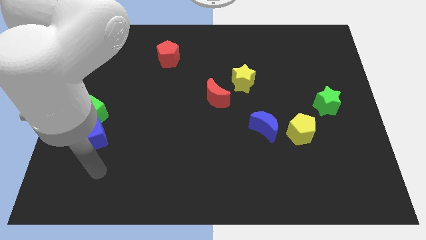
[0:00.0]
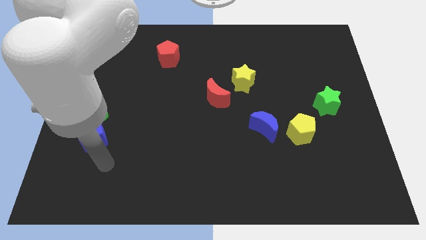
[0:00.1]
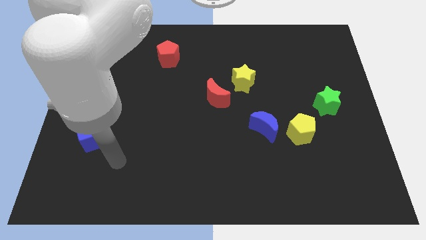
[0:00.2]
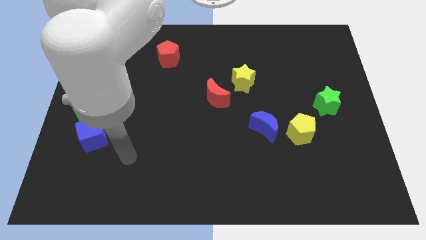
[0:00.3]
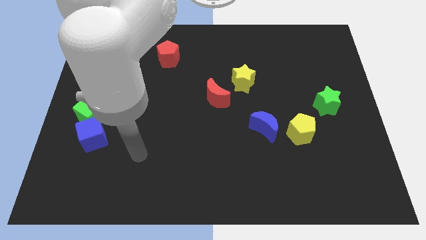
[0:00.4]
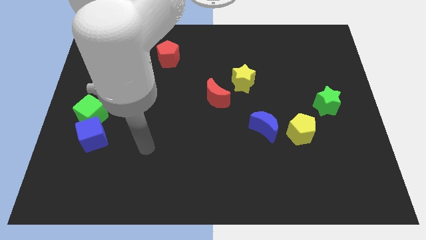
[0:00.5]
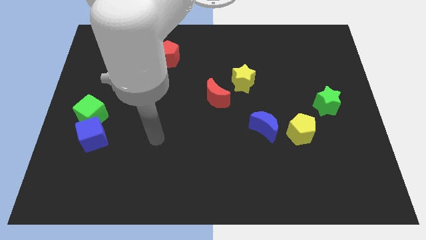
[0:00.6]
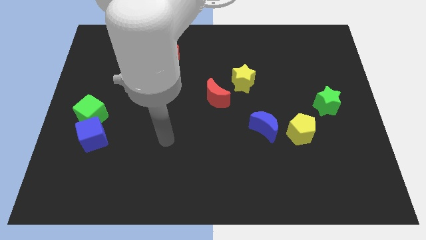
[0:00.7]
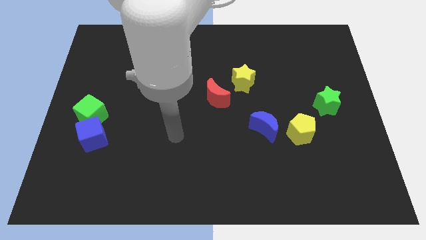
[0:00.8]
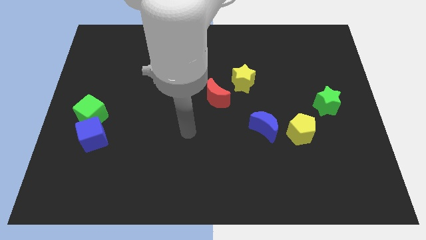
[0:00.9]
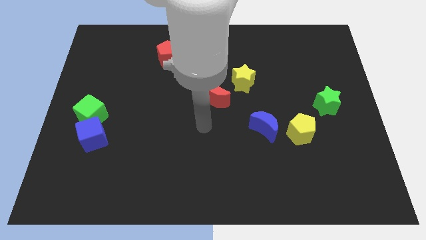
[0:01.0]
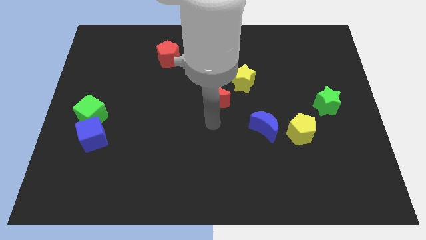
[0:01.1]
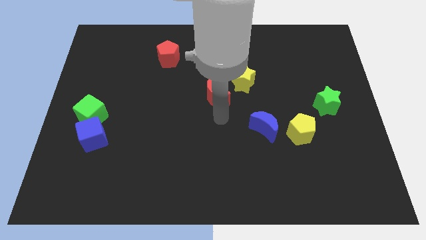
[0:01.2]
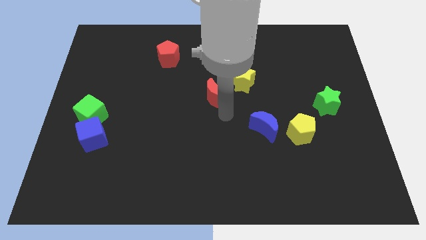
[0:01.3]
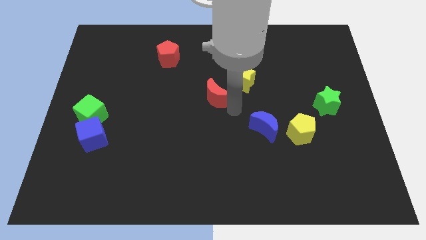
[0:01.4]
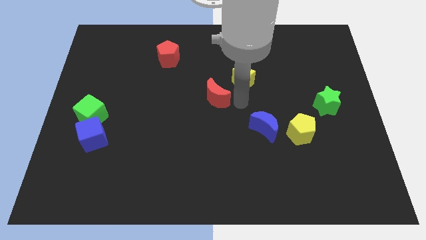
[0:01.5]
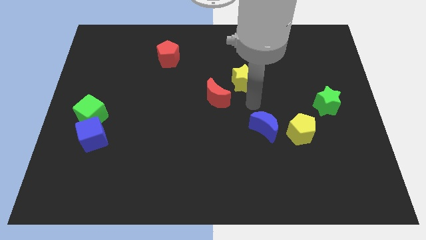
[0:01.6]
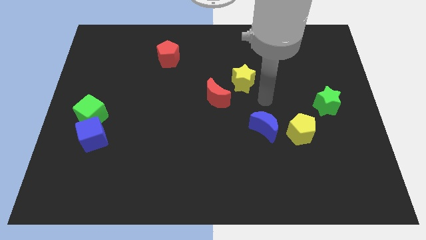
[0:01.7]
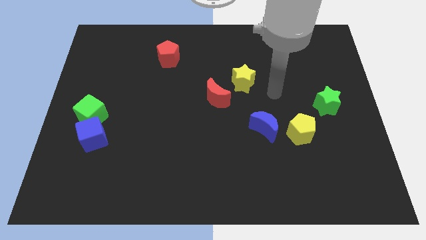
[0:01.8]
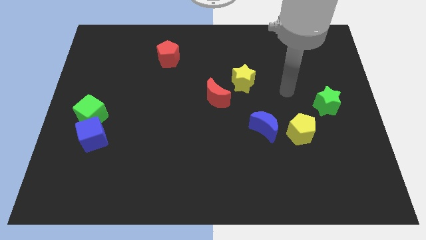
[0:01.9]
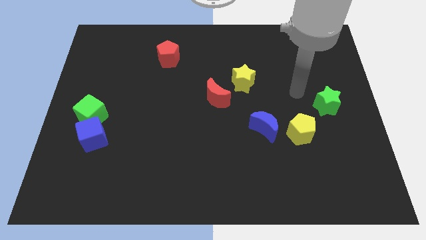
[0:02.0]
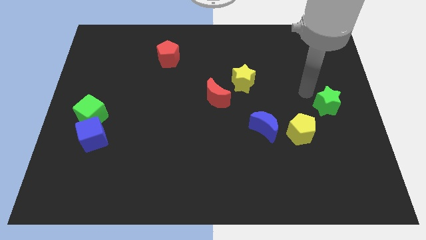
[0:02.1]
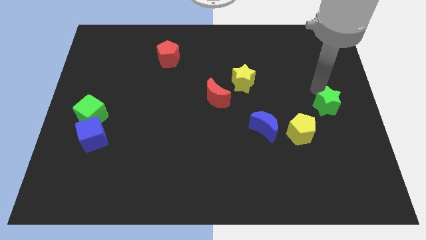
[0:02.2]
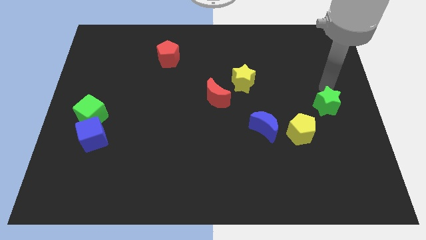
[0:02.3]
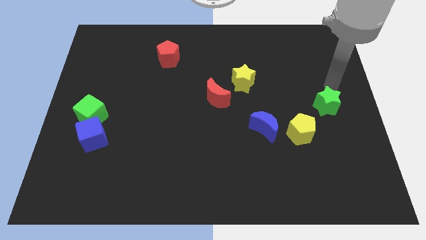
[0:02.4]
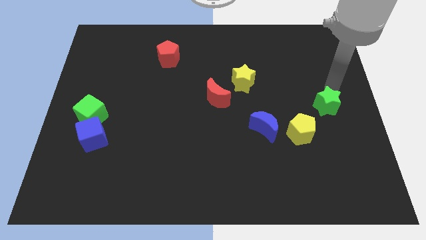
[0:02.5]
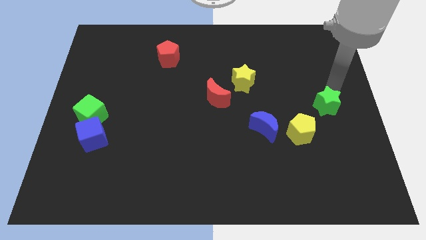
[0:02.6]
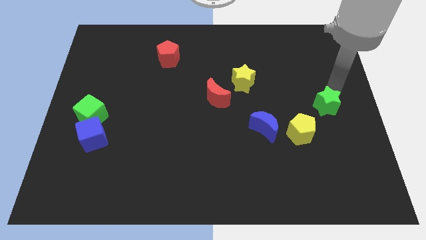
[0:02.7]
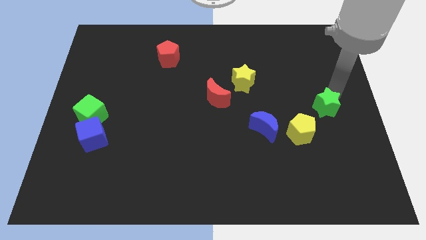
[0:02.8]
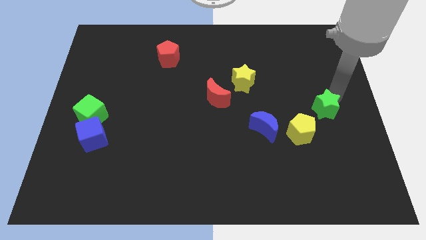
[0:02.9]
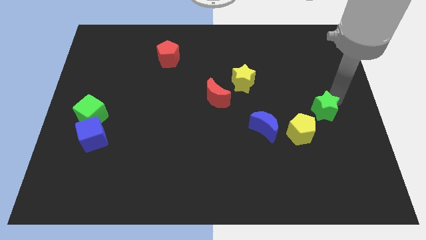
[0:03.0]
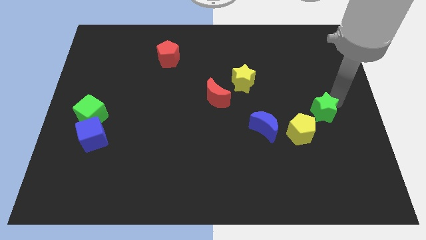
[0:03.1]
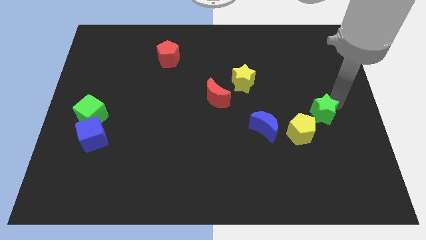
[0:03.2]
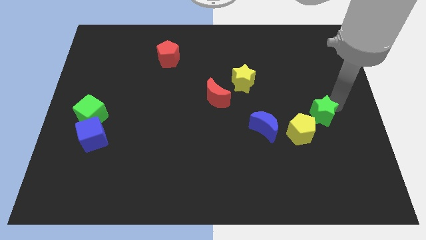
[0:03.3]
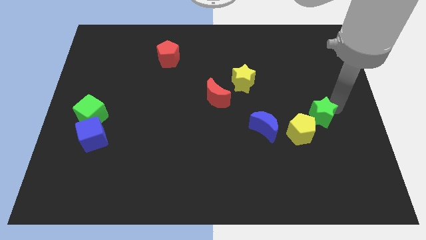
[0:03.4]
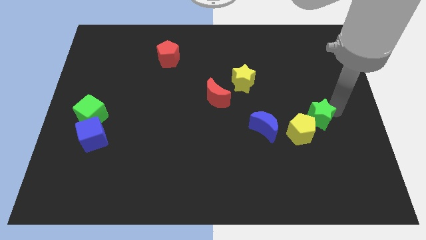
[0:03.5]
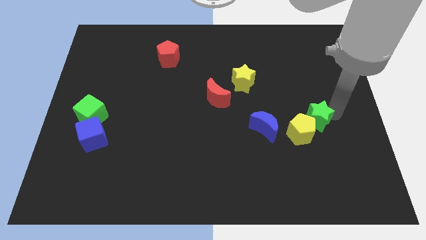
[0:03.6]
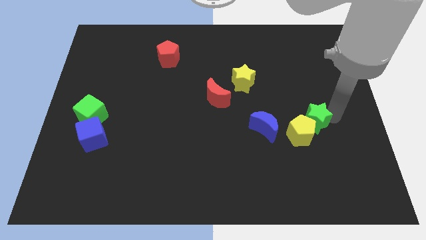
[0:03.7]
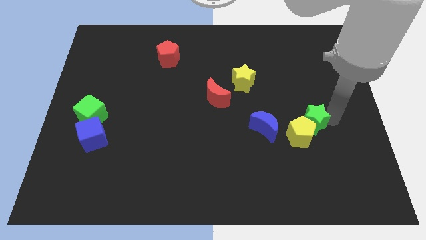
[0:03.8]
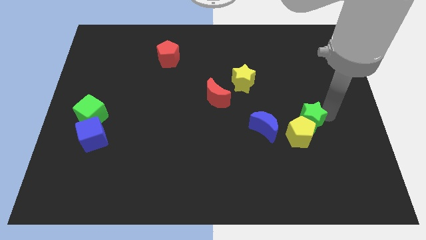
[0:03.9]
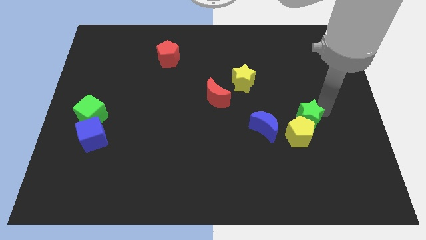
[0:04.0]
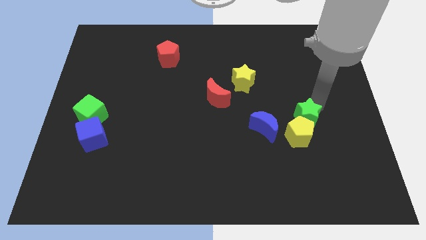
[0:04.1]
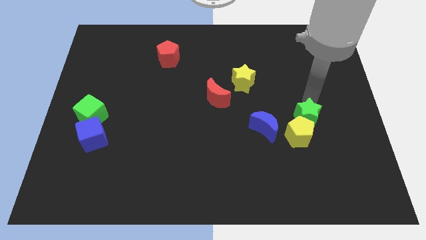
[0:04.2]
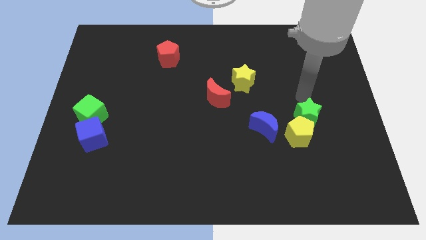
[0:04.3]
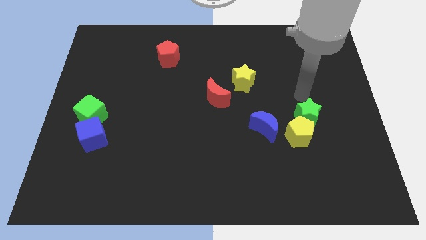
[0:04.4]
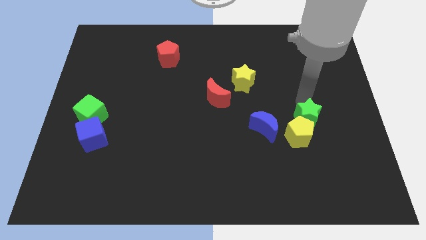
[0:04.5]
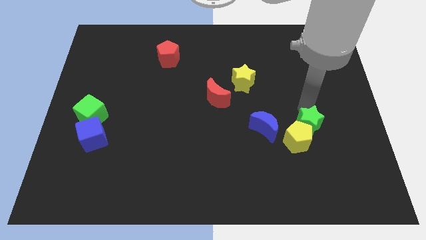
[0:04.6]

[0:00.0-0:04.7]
slide the green star a bit diagonally down and to the left

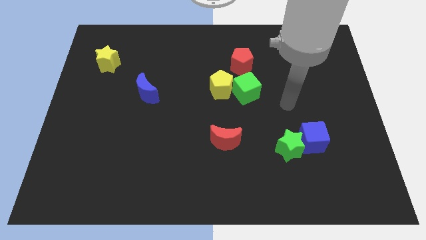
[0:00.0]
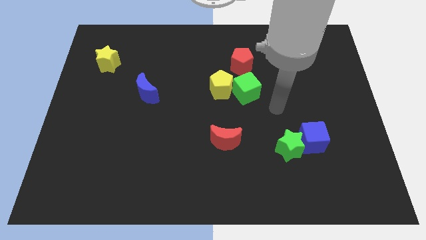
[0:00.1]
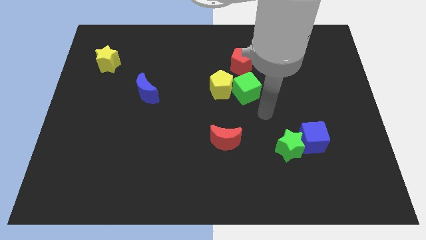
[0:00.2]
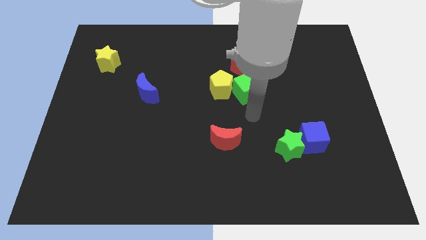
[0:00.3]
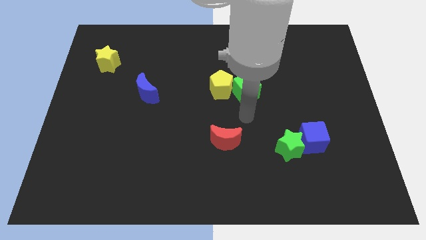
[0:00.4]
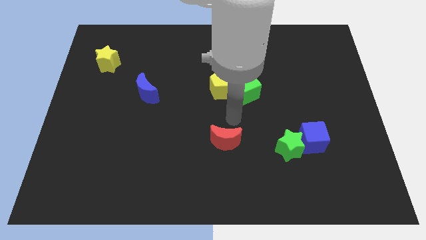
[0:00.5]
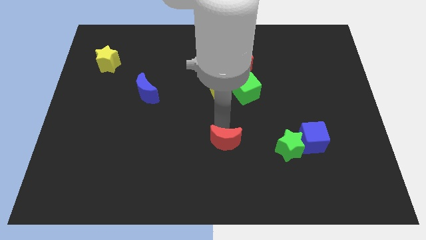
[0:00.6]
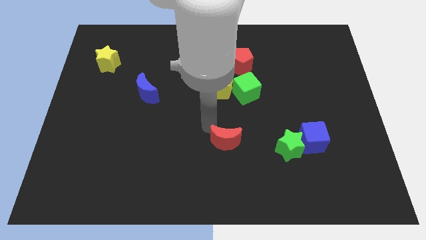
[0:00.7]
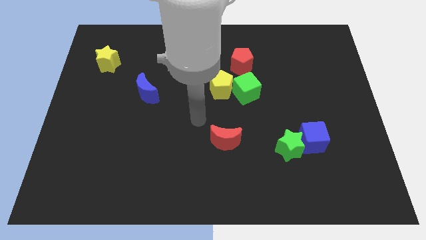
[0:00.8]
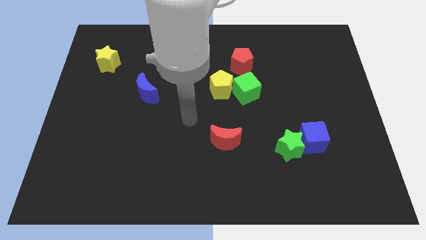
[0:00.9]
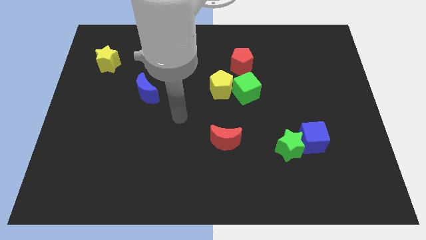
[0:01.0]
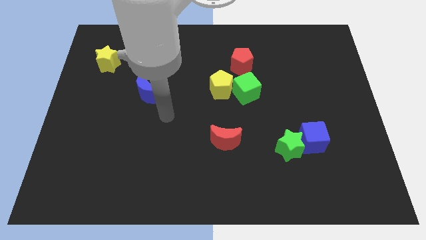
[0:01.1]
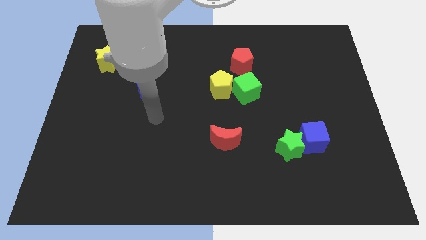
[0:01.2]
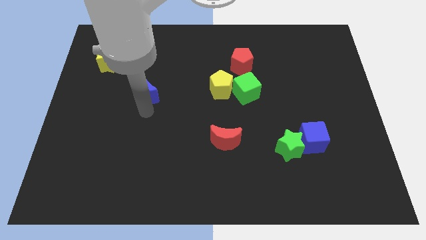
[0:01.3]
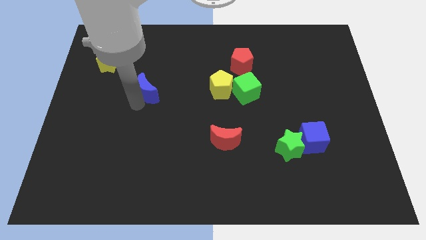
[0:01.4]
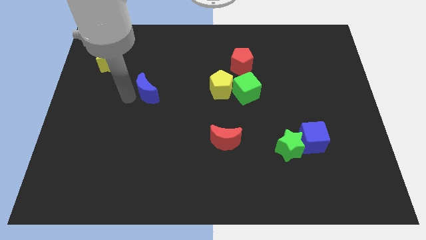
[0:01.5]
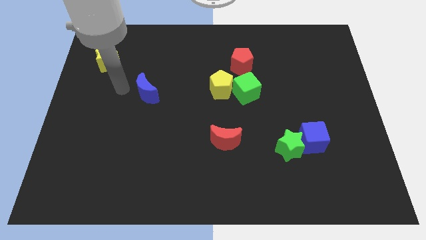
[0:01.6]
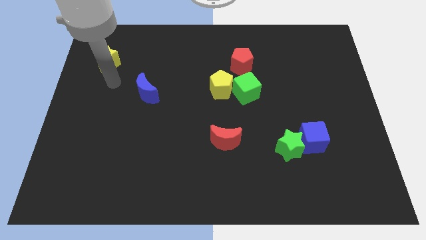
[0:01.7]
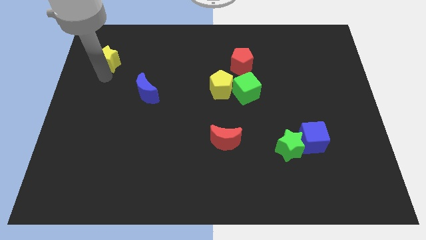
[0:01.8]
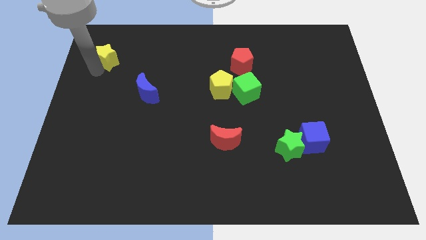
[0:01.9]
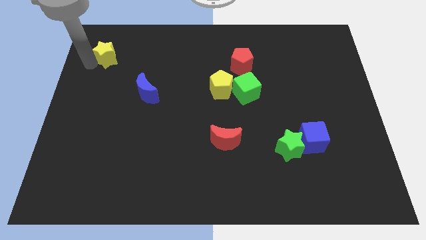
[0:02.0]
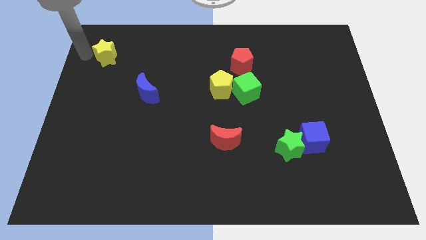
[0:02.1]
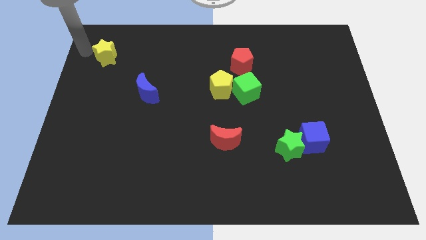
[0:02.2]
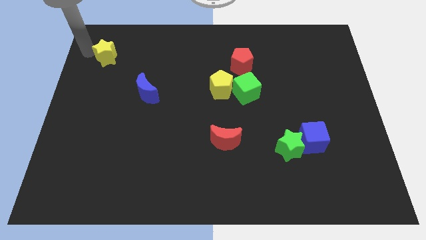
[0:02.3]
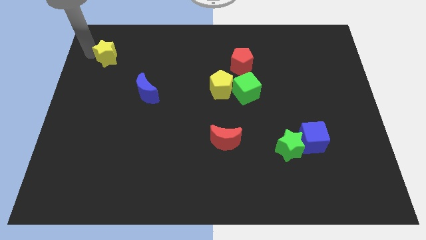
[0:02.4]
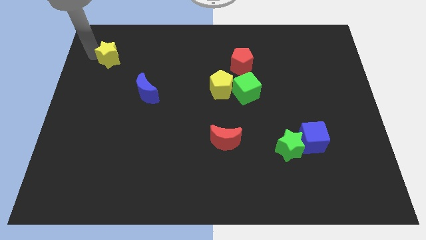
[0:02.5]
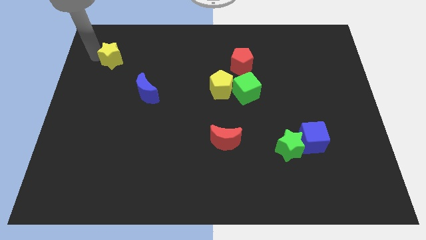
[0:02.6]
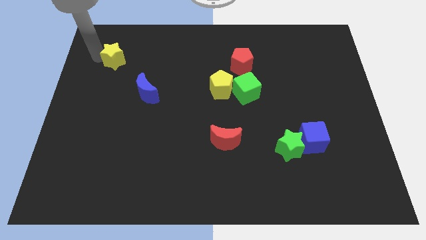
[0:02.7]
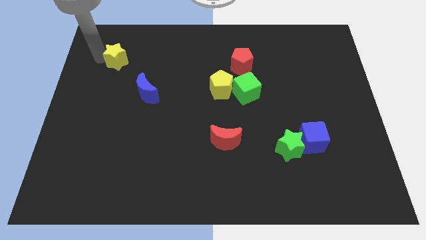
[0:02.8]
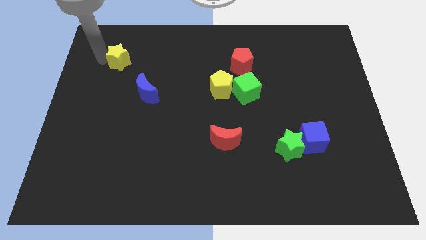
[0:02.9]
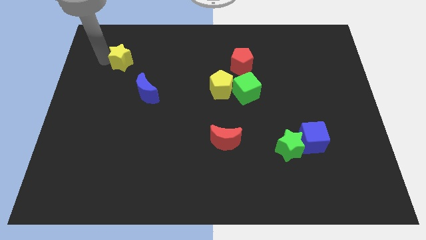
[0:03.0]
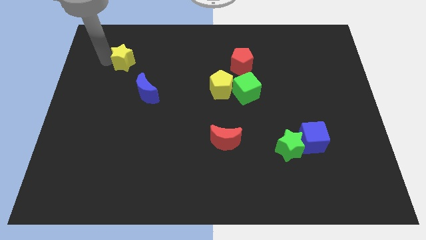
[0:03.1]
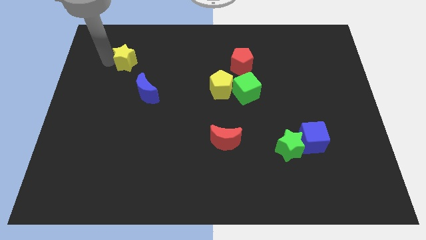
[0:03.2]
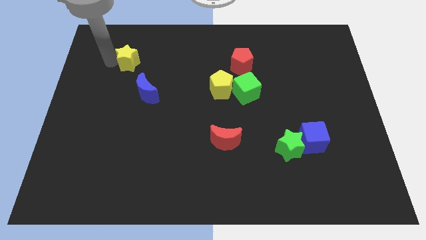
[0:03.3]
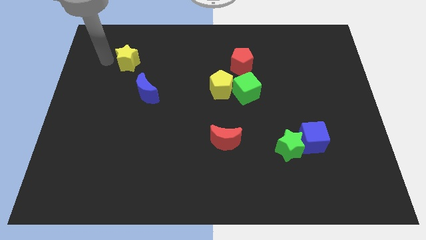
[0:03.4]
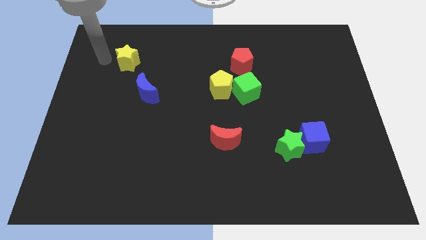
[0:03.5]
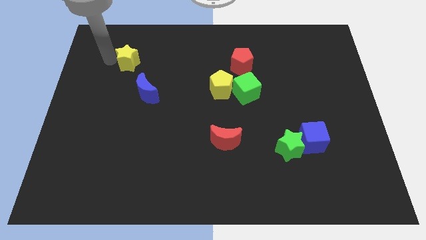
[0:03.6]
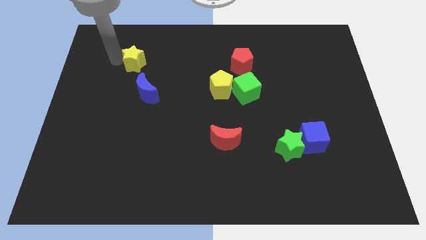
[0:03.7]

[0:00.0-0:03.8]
slide the yellow star a little right
